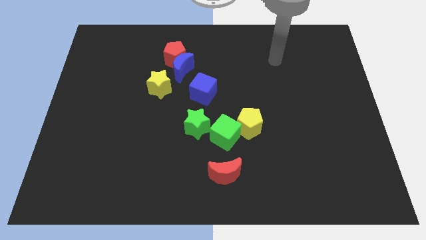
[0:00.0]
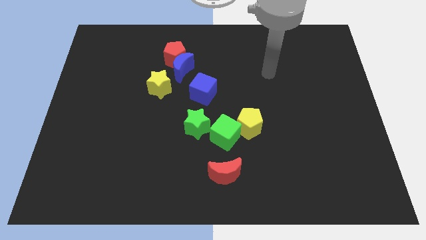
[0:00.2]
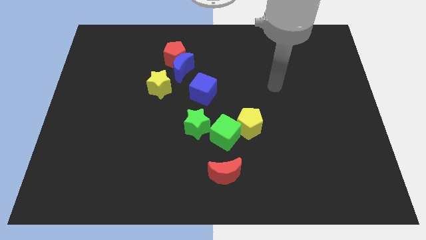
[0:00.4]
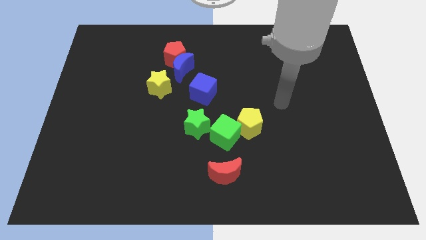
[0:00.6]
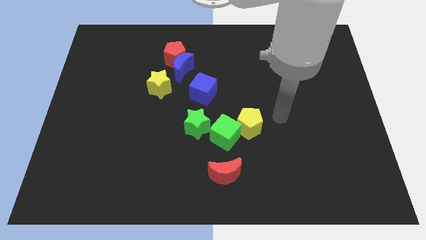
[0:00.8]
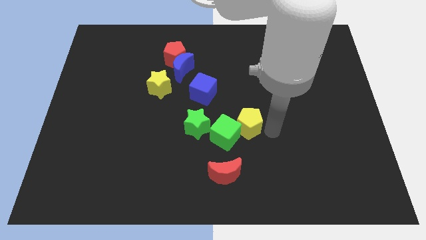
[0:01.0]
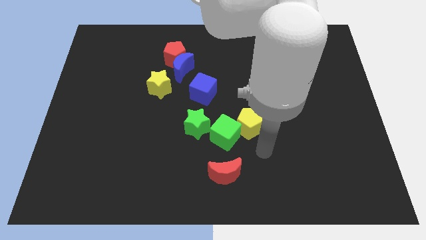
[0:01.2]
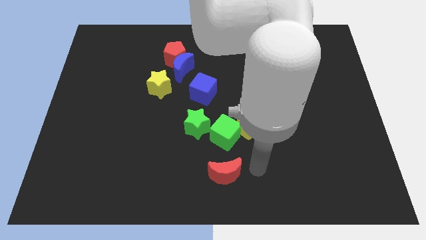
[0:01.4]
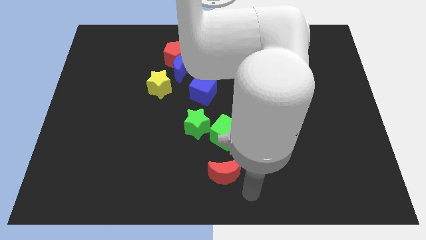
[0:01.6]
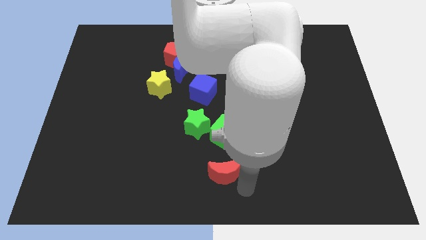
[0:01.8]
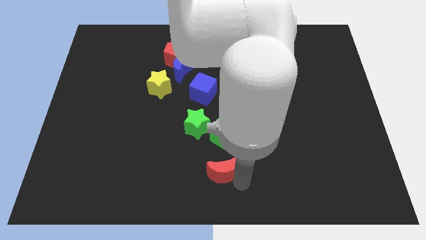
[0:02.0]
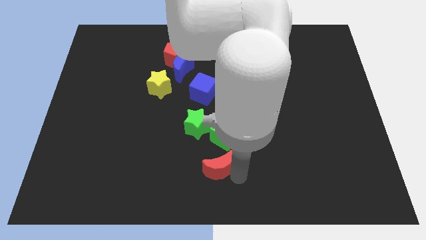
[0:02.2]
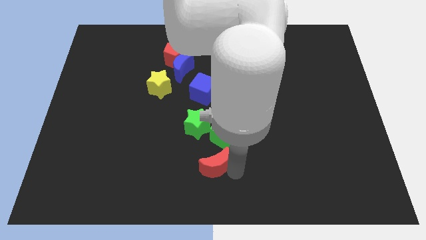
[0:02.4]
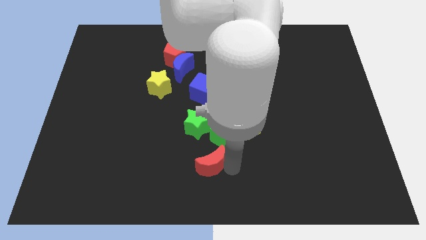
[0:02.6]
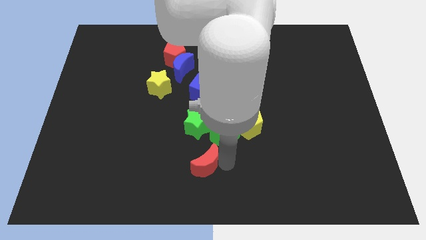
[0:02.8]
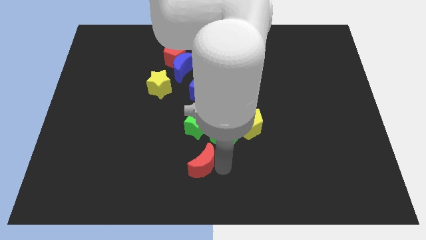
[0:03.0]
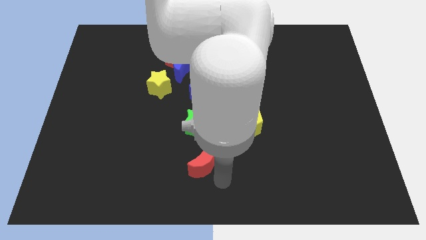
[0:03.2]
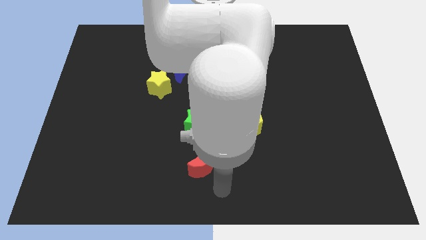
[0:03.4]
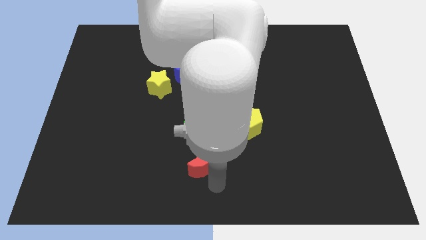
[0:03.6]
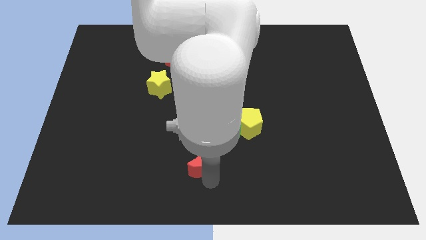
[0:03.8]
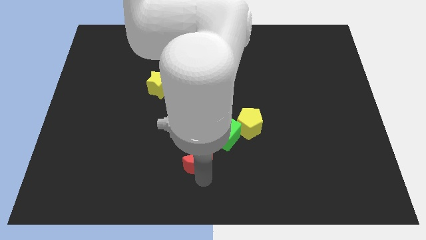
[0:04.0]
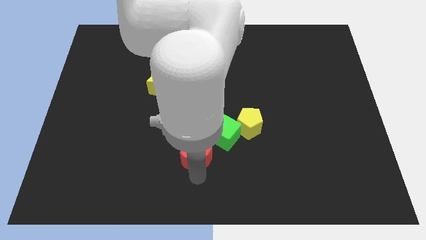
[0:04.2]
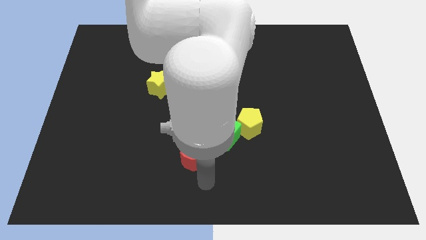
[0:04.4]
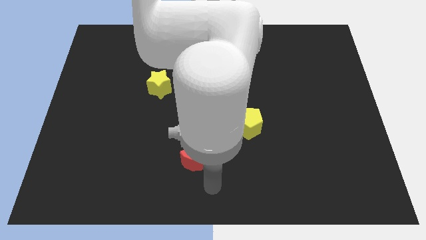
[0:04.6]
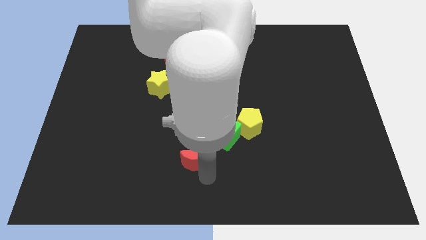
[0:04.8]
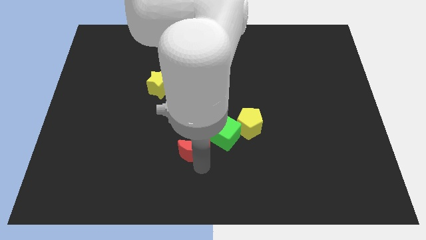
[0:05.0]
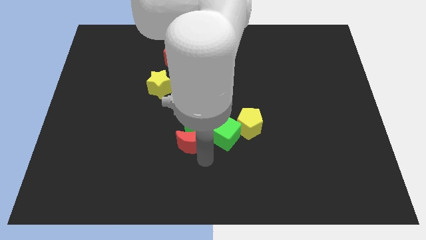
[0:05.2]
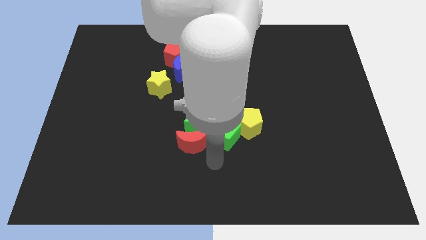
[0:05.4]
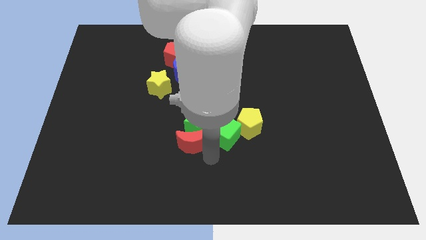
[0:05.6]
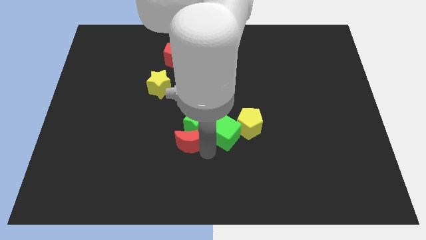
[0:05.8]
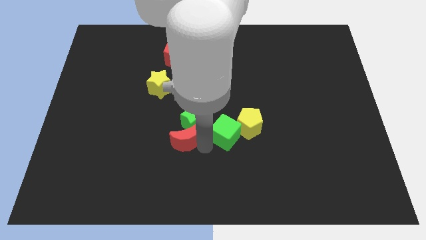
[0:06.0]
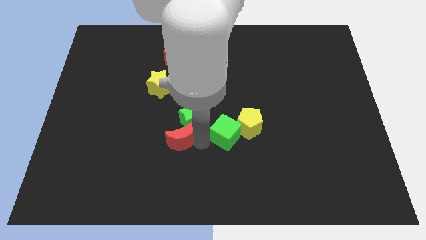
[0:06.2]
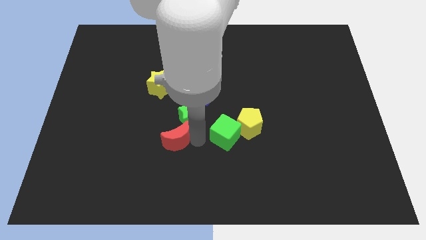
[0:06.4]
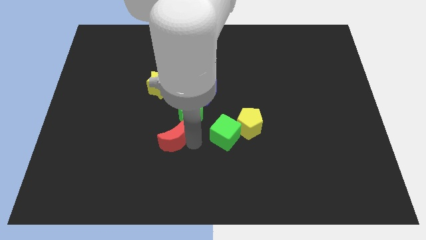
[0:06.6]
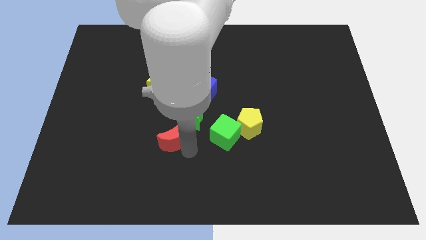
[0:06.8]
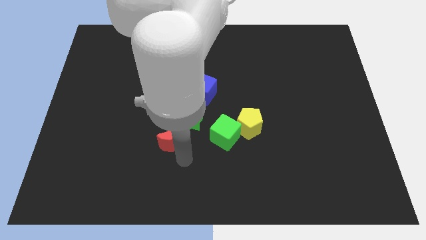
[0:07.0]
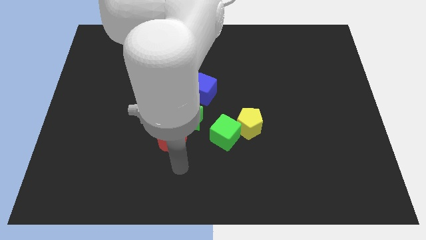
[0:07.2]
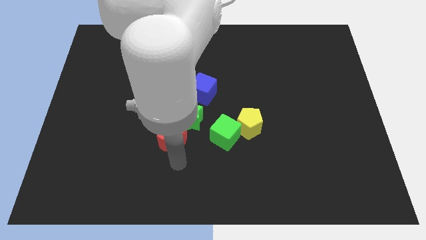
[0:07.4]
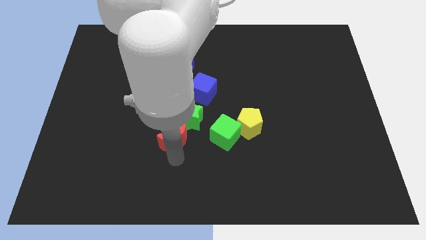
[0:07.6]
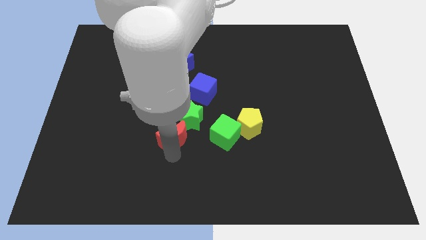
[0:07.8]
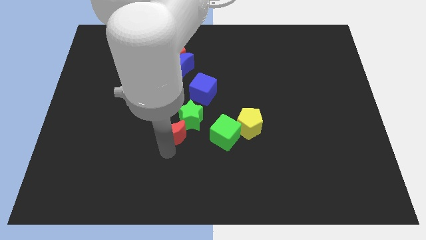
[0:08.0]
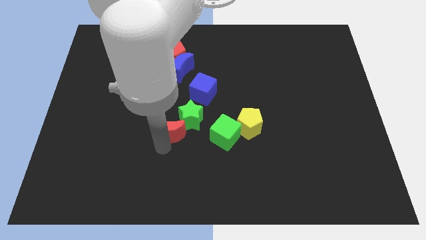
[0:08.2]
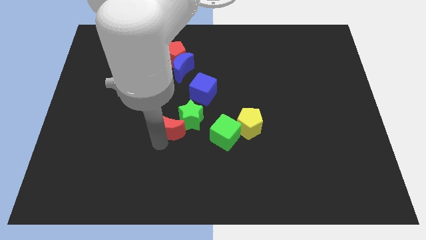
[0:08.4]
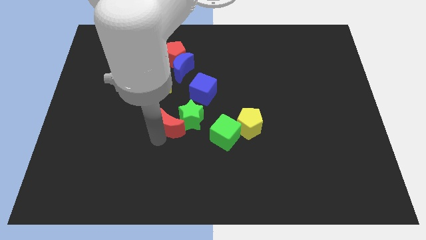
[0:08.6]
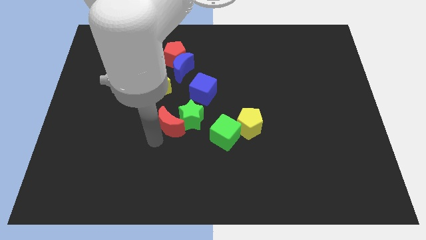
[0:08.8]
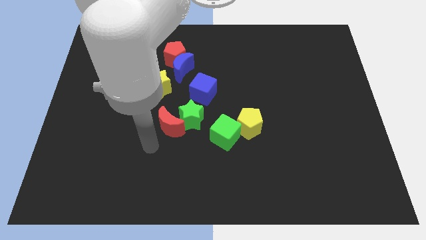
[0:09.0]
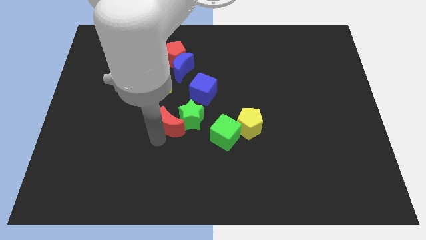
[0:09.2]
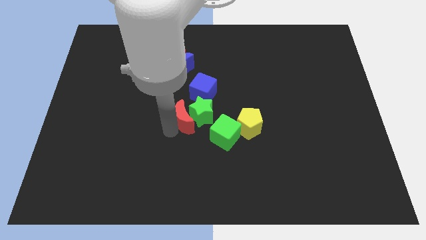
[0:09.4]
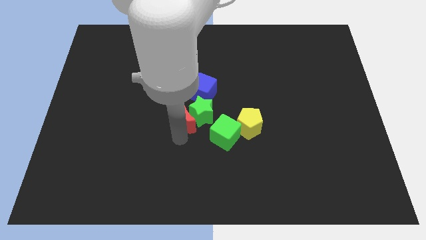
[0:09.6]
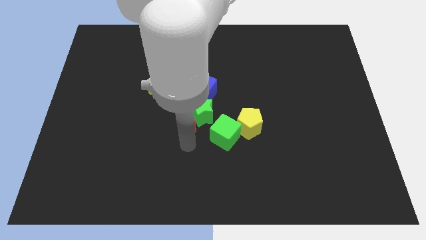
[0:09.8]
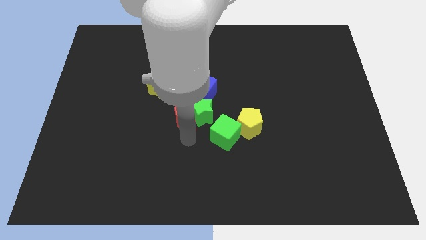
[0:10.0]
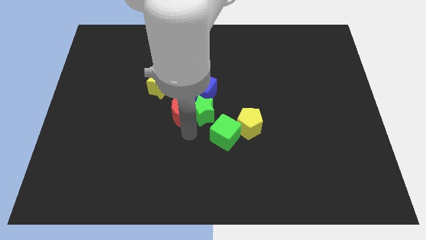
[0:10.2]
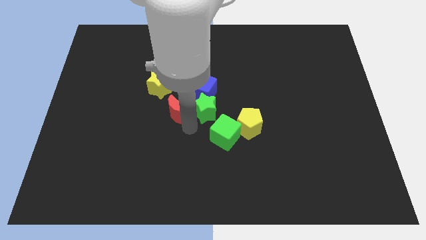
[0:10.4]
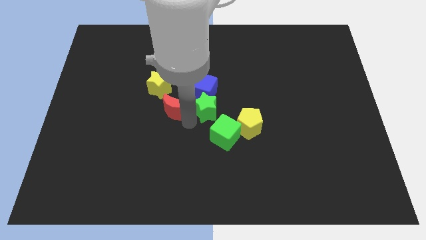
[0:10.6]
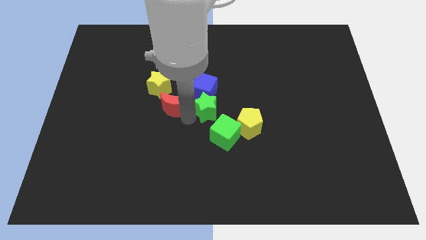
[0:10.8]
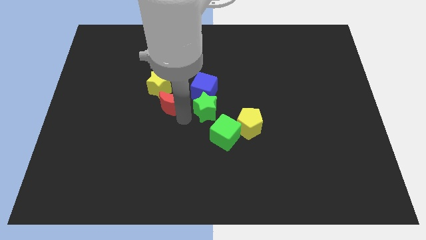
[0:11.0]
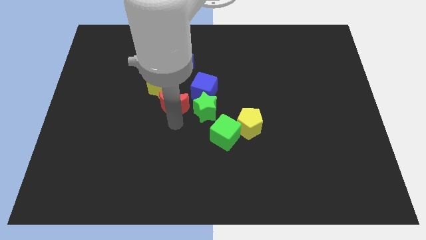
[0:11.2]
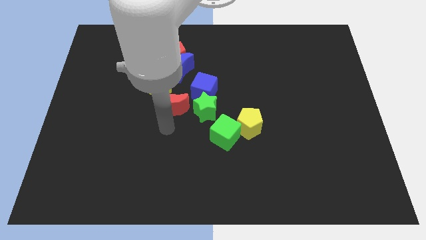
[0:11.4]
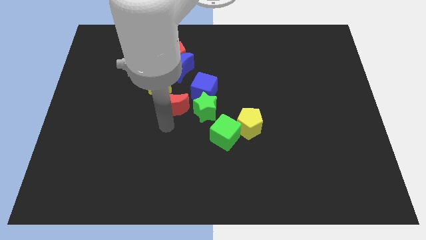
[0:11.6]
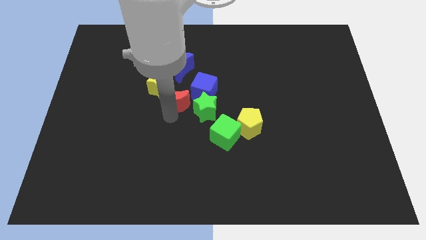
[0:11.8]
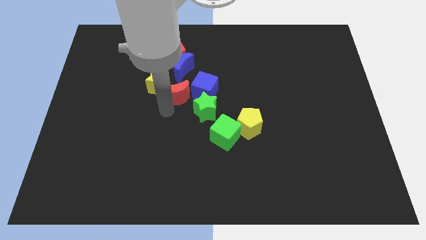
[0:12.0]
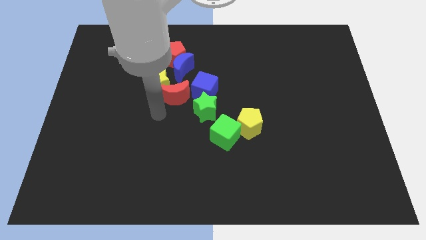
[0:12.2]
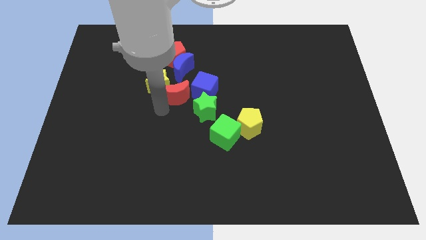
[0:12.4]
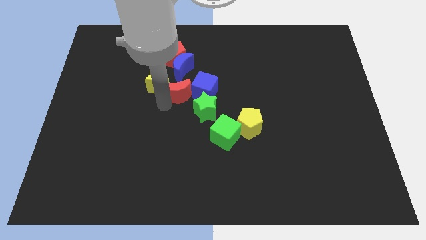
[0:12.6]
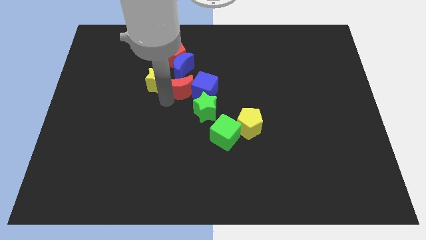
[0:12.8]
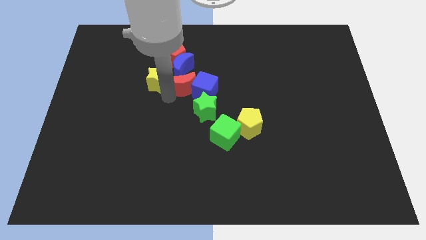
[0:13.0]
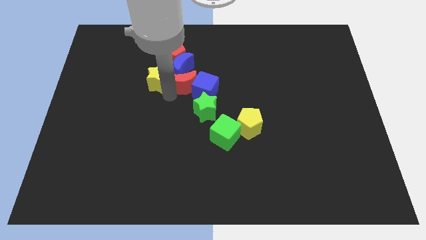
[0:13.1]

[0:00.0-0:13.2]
slide the red moon up

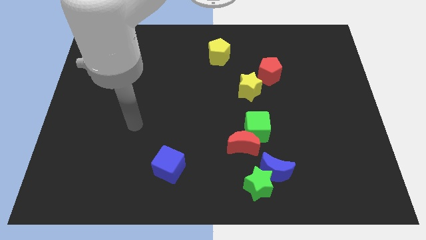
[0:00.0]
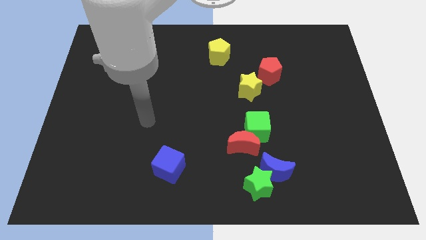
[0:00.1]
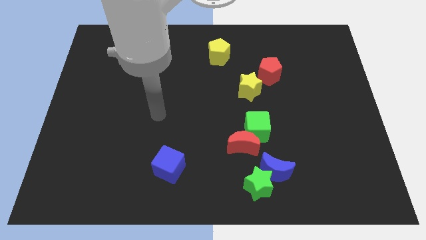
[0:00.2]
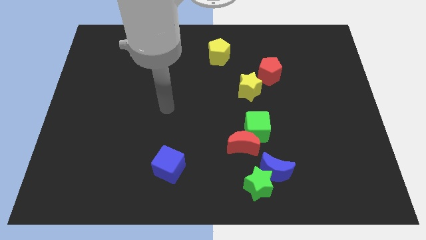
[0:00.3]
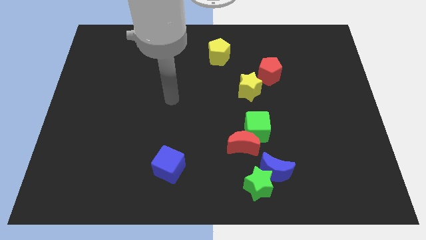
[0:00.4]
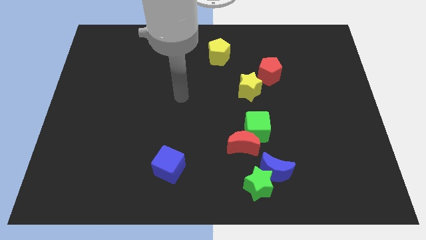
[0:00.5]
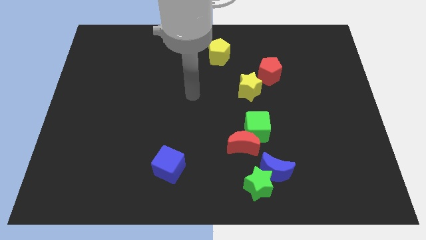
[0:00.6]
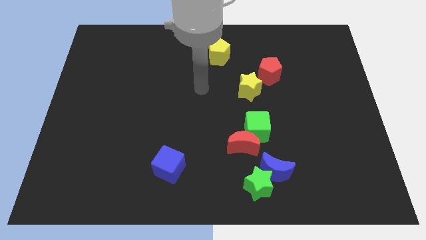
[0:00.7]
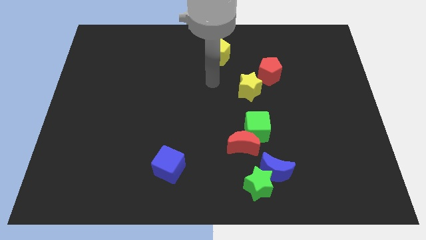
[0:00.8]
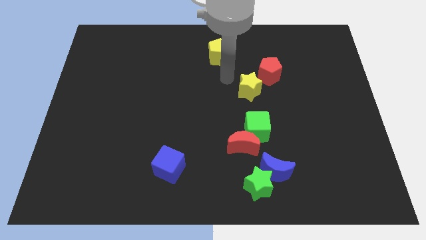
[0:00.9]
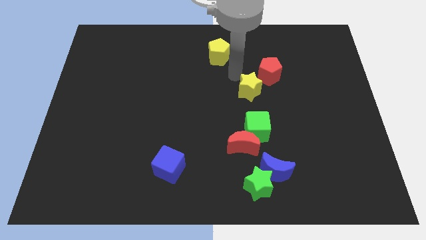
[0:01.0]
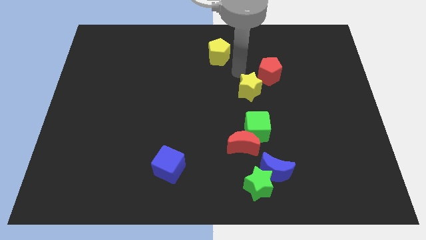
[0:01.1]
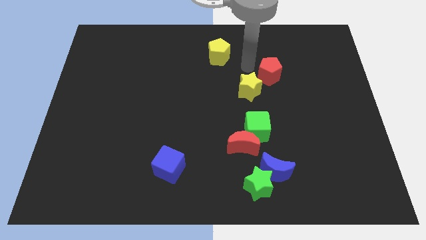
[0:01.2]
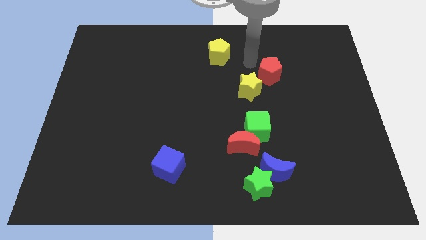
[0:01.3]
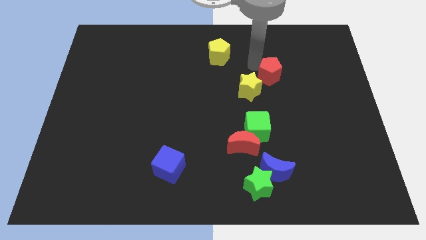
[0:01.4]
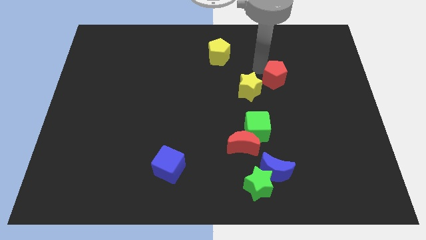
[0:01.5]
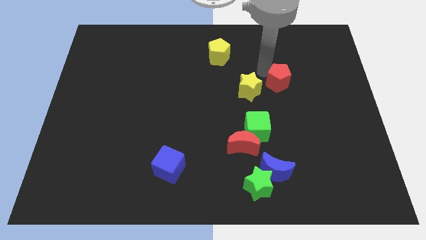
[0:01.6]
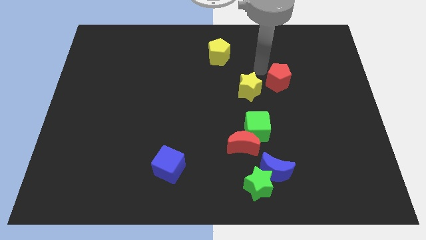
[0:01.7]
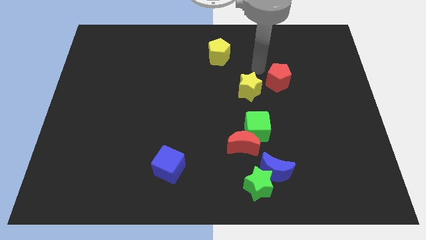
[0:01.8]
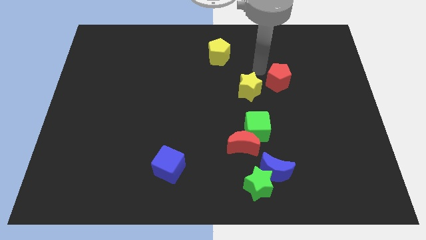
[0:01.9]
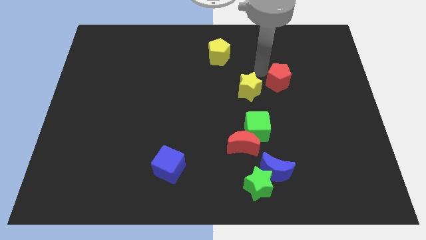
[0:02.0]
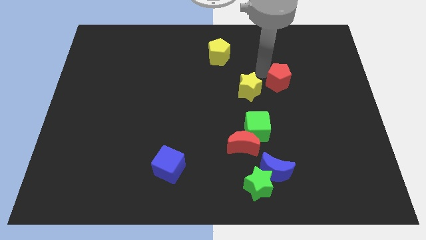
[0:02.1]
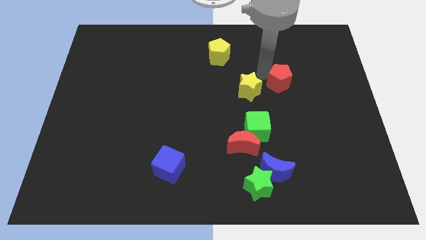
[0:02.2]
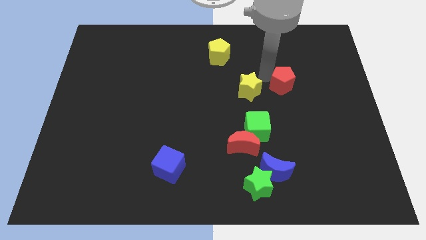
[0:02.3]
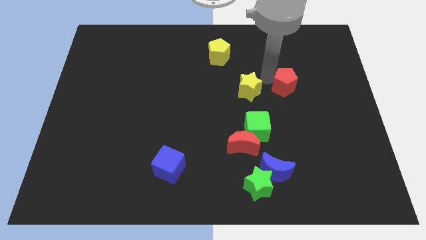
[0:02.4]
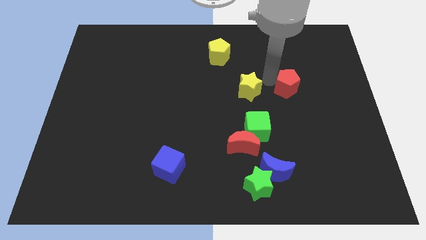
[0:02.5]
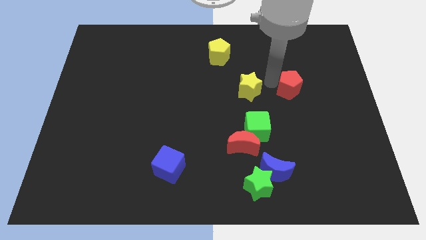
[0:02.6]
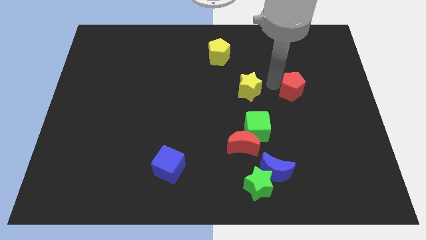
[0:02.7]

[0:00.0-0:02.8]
slightly move the red pentagon diagonally downwards and right
